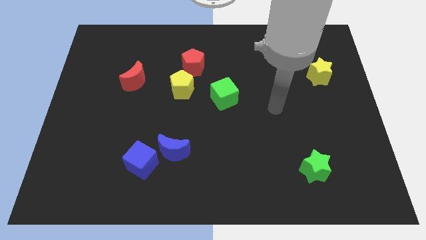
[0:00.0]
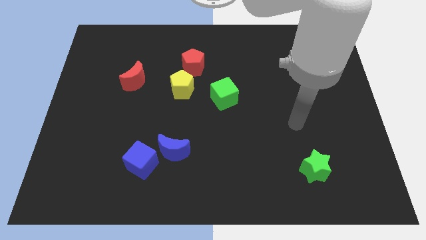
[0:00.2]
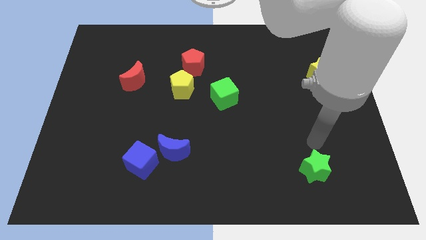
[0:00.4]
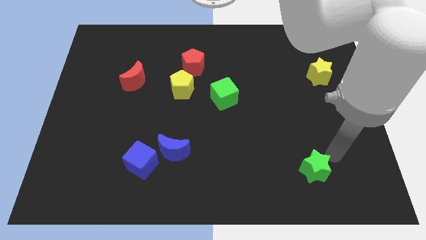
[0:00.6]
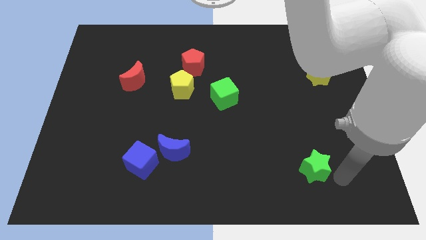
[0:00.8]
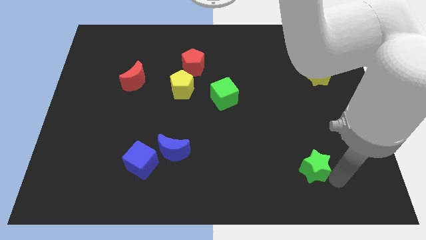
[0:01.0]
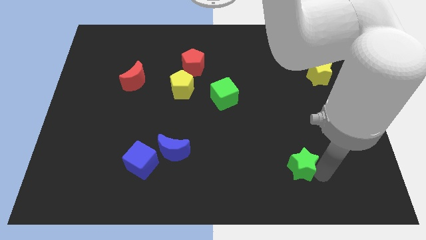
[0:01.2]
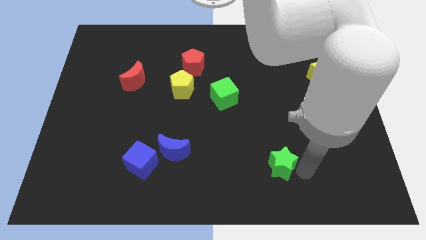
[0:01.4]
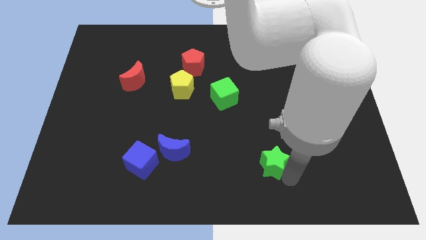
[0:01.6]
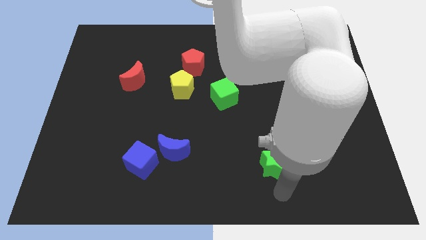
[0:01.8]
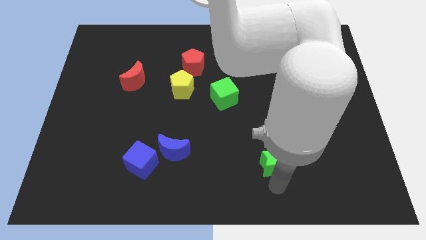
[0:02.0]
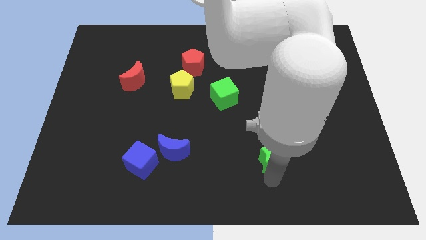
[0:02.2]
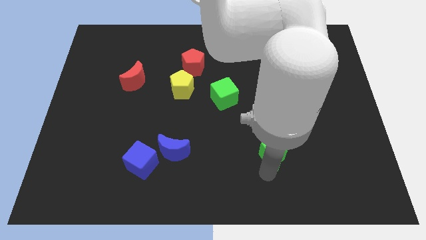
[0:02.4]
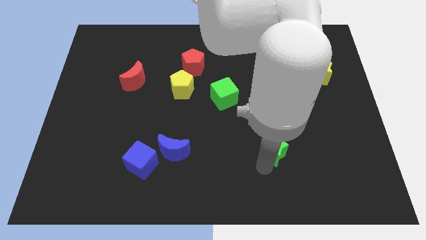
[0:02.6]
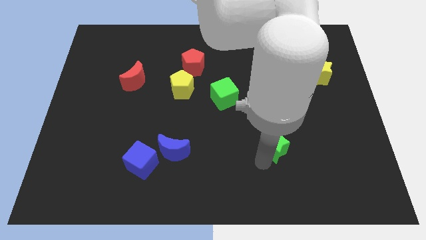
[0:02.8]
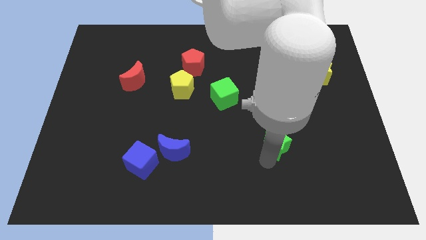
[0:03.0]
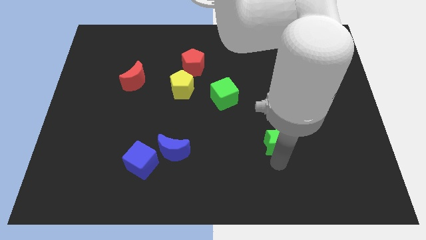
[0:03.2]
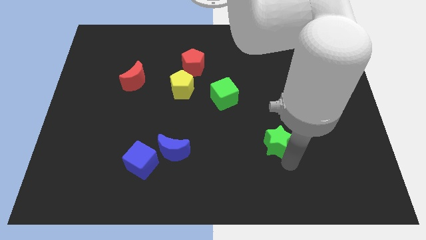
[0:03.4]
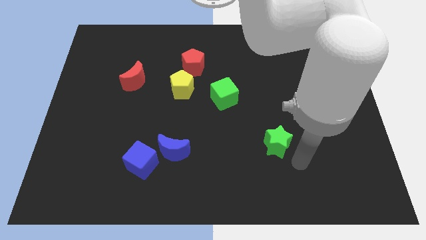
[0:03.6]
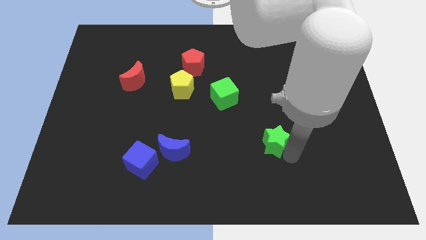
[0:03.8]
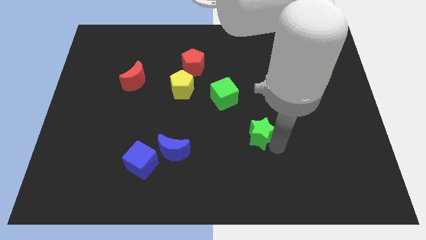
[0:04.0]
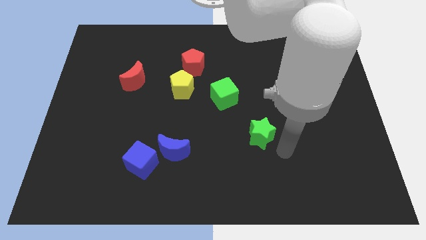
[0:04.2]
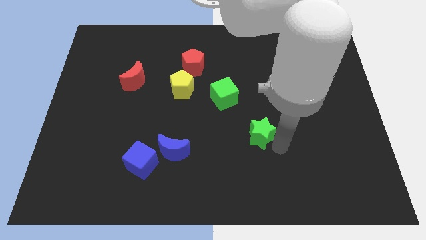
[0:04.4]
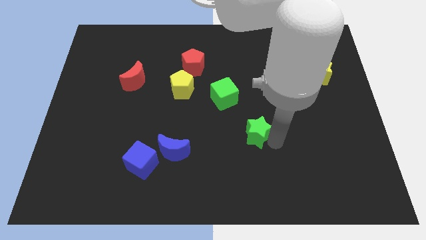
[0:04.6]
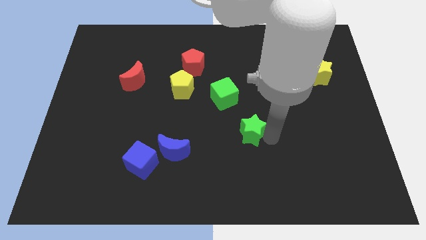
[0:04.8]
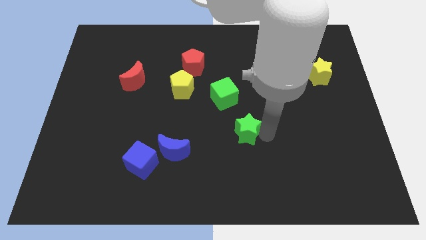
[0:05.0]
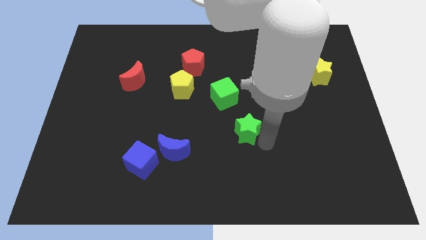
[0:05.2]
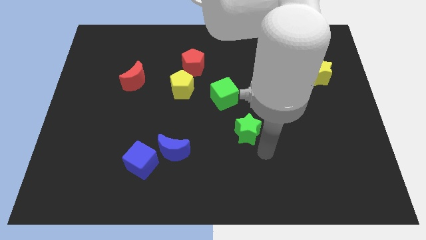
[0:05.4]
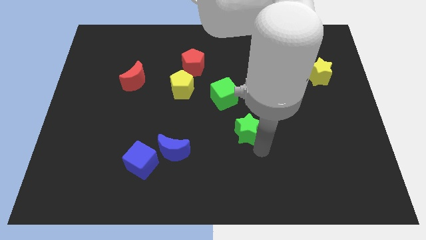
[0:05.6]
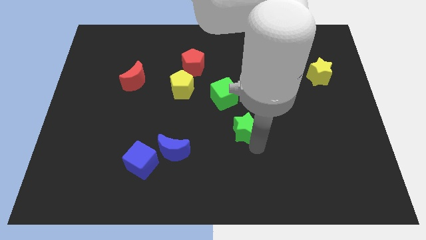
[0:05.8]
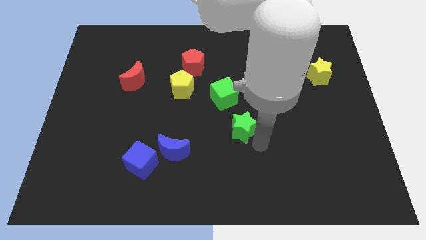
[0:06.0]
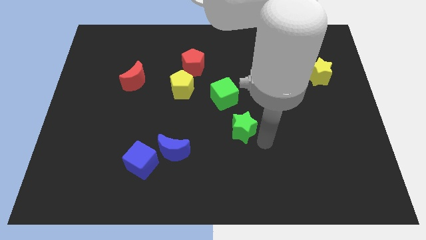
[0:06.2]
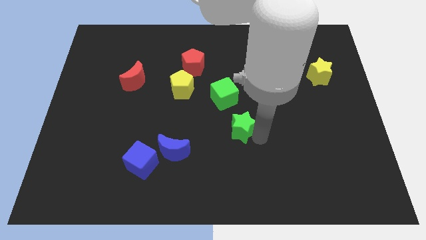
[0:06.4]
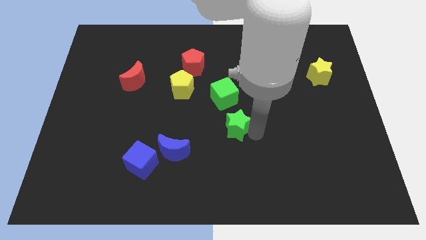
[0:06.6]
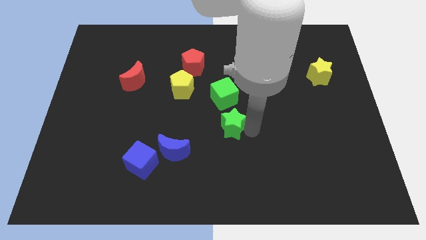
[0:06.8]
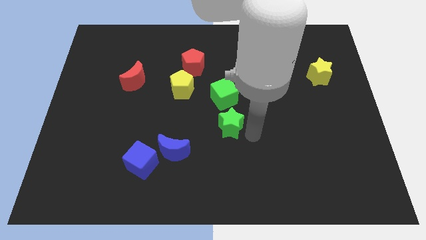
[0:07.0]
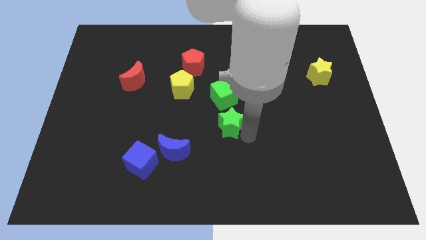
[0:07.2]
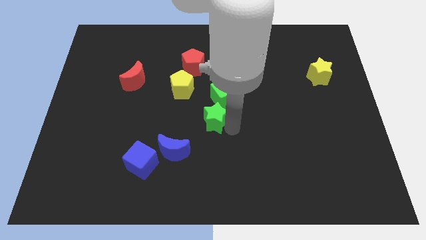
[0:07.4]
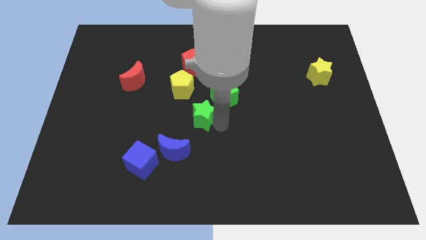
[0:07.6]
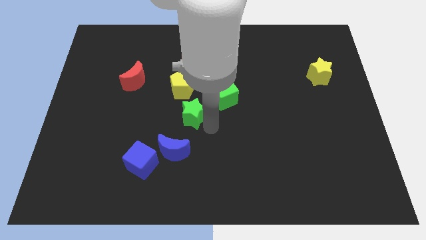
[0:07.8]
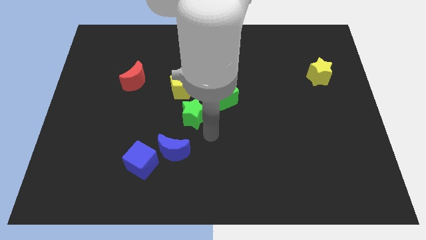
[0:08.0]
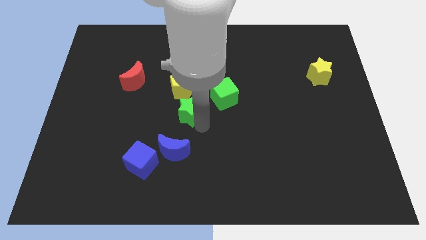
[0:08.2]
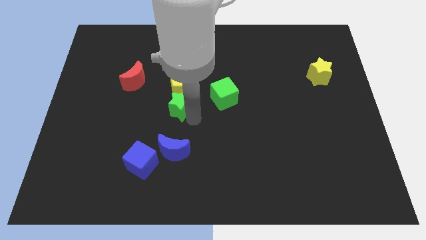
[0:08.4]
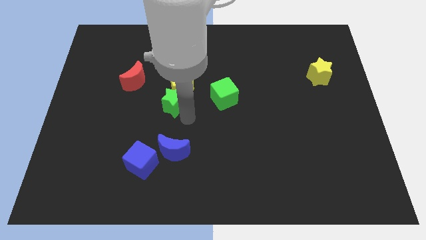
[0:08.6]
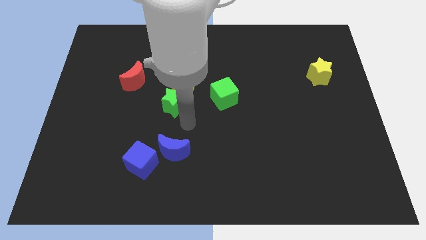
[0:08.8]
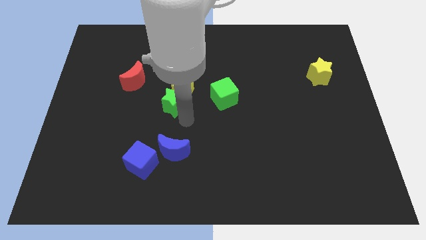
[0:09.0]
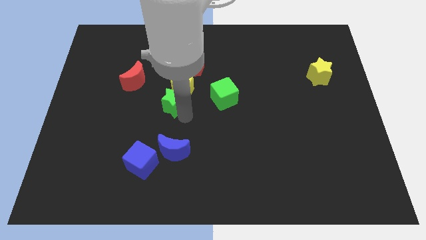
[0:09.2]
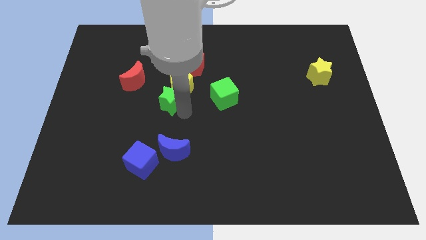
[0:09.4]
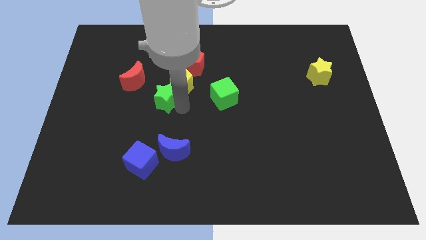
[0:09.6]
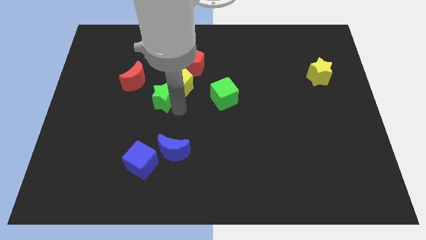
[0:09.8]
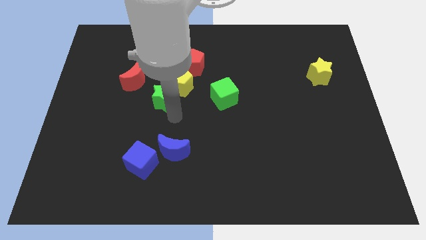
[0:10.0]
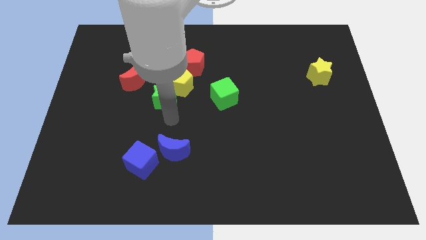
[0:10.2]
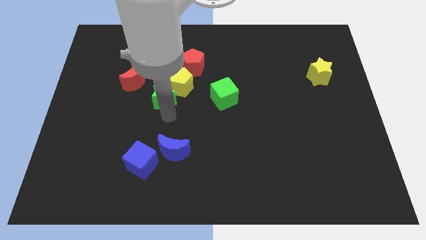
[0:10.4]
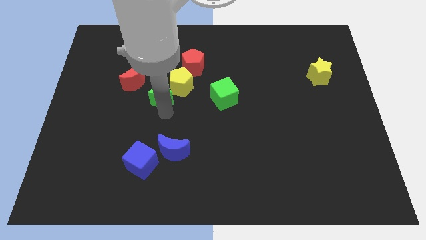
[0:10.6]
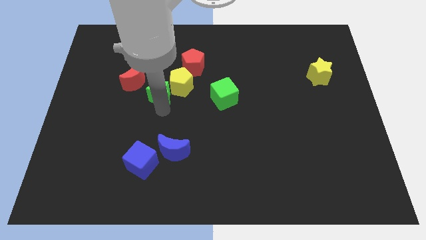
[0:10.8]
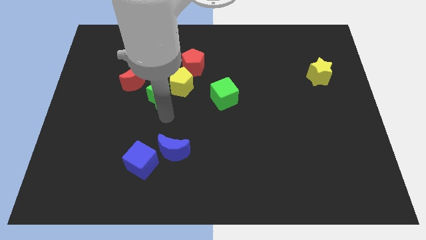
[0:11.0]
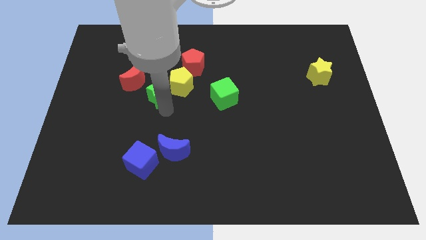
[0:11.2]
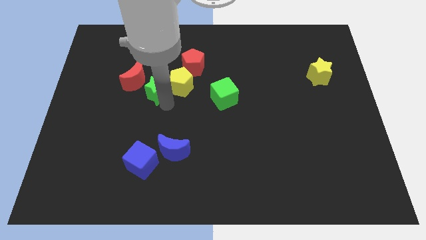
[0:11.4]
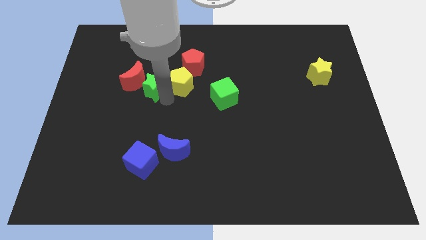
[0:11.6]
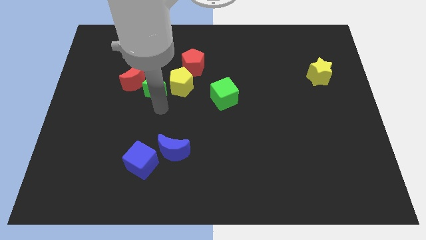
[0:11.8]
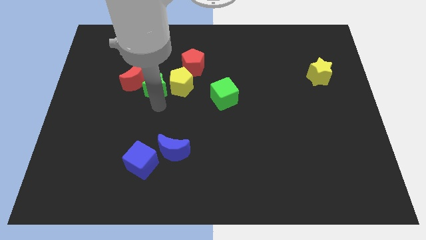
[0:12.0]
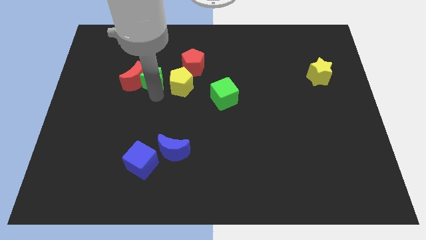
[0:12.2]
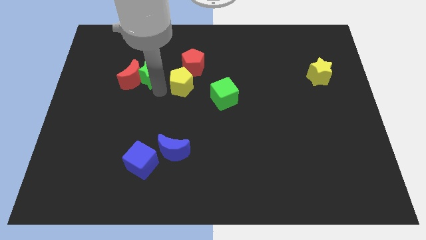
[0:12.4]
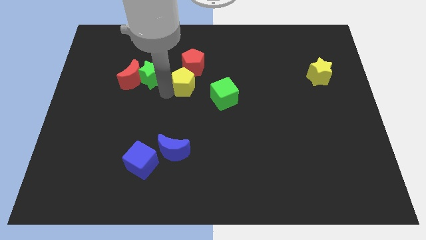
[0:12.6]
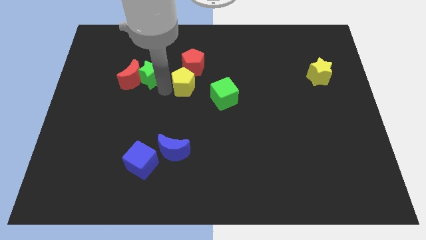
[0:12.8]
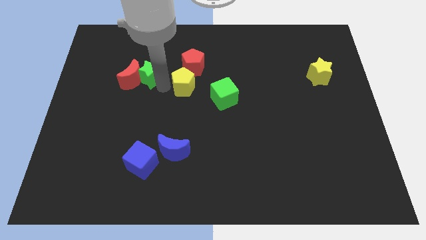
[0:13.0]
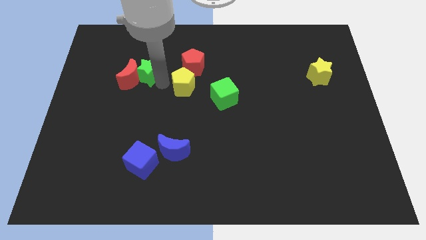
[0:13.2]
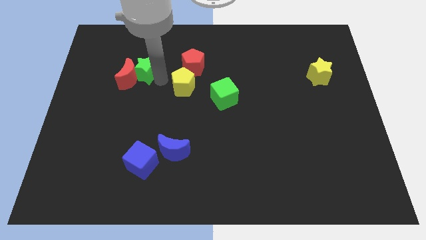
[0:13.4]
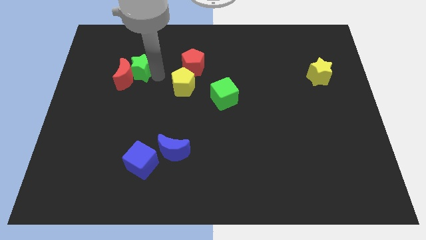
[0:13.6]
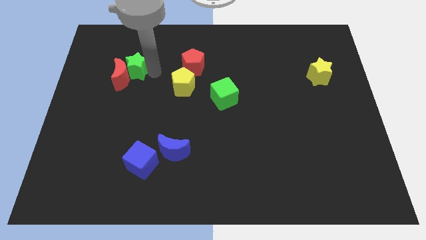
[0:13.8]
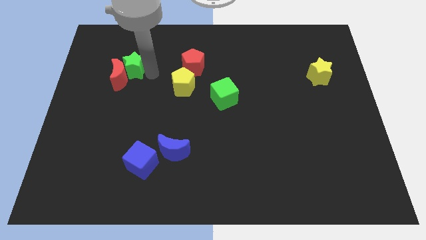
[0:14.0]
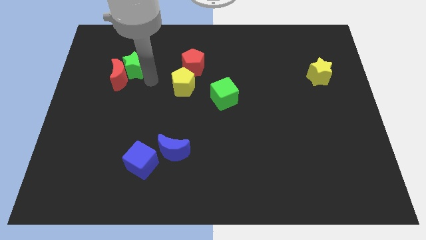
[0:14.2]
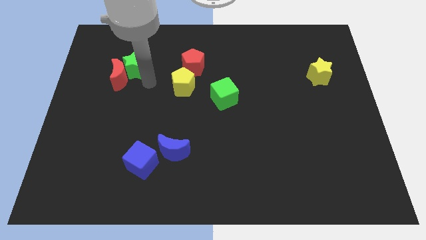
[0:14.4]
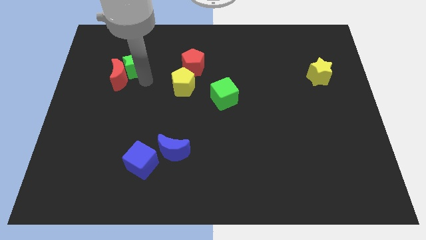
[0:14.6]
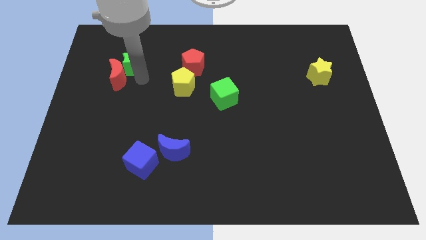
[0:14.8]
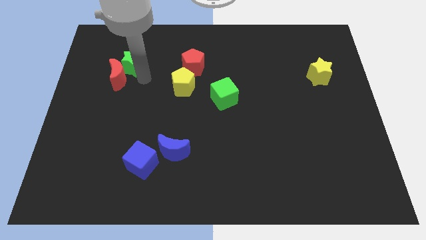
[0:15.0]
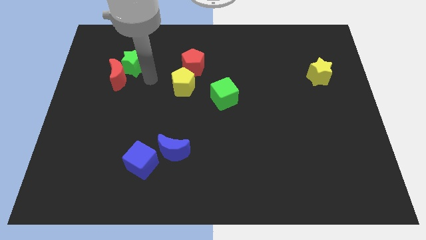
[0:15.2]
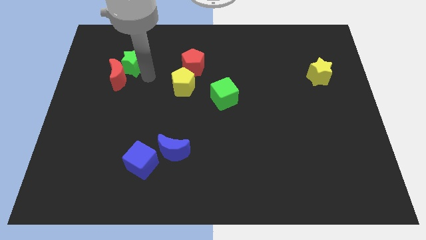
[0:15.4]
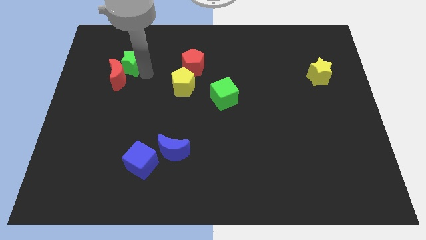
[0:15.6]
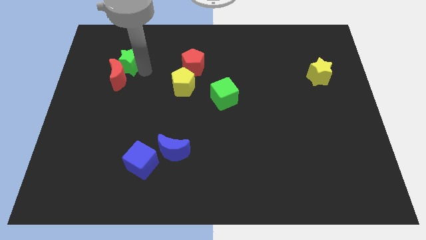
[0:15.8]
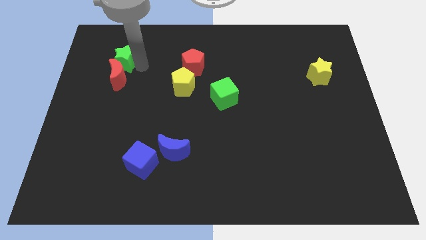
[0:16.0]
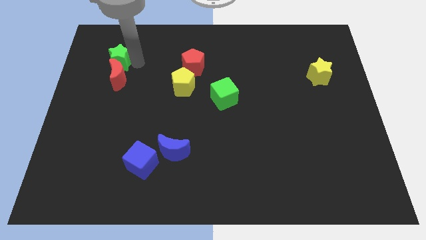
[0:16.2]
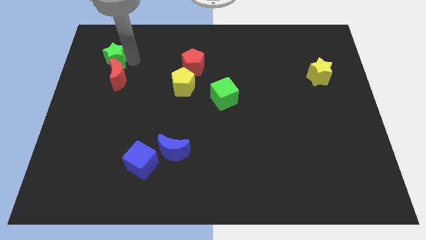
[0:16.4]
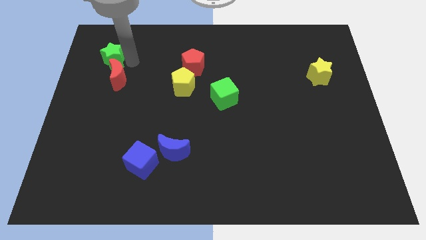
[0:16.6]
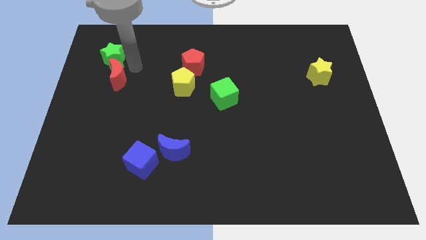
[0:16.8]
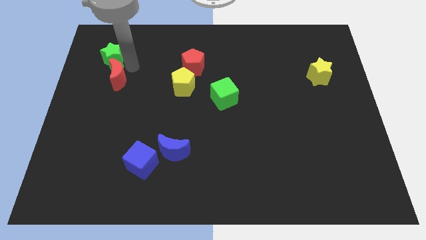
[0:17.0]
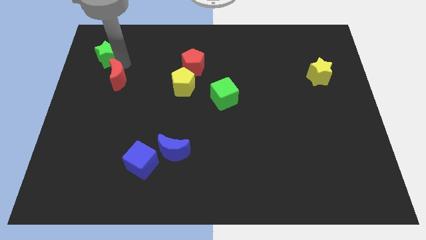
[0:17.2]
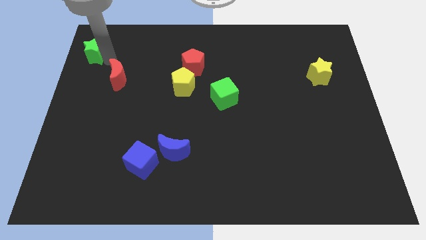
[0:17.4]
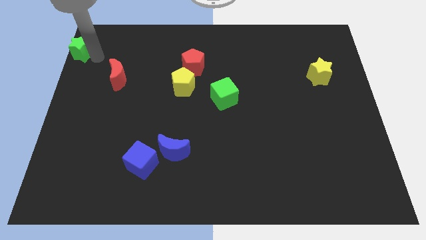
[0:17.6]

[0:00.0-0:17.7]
push the green star to the top left corner
